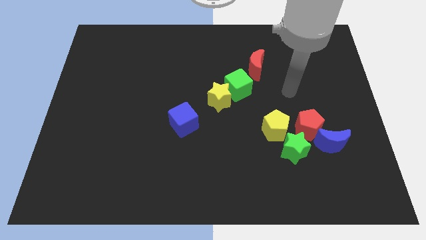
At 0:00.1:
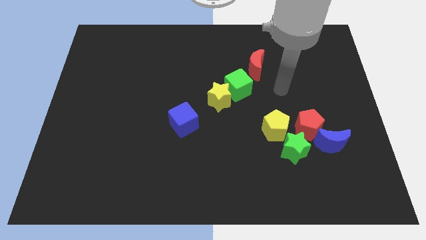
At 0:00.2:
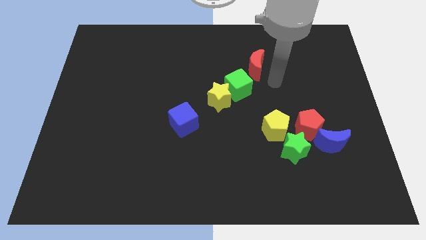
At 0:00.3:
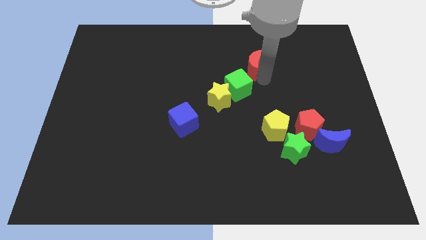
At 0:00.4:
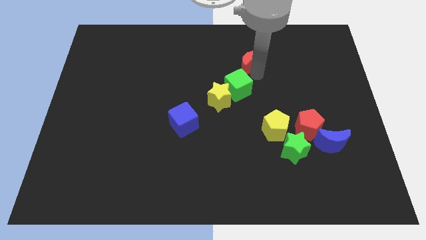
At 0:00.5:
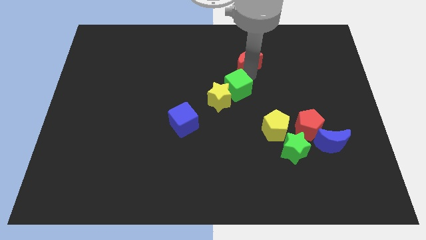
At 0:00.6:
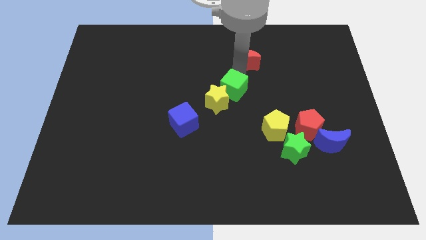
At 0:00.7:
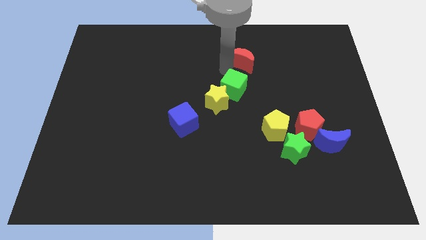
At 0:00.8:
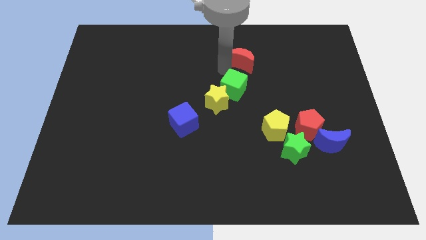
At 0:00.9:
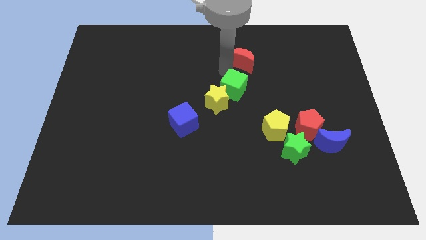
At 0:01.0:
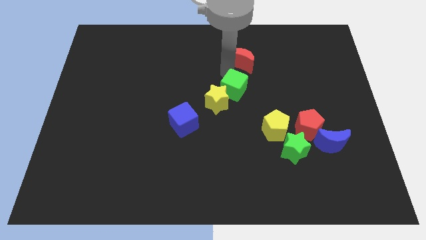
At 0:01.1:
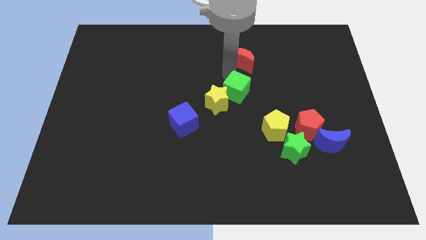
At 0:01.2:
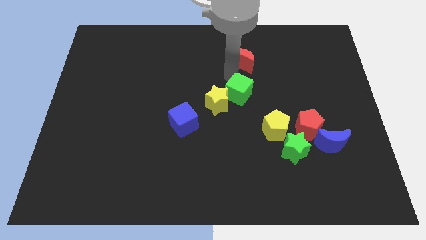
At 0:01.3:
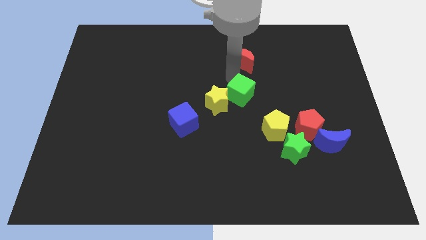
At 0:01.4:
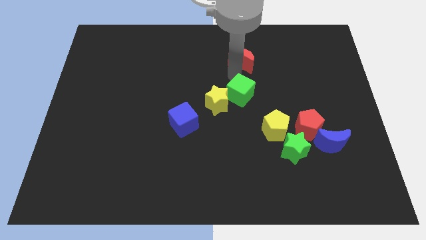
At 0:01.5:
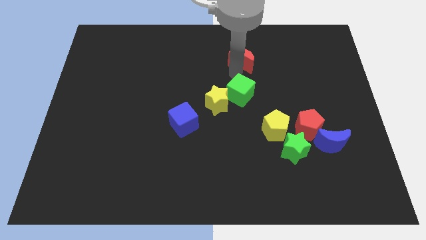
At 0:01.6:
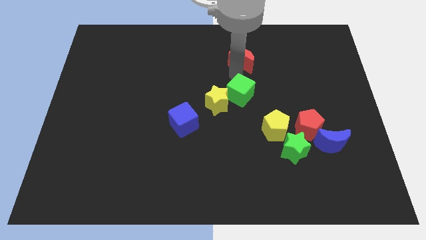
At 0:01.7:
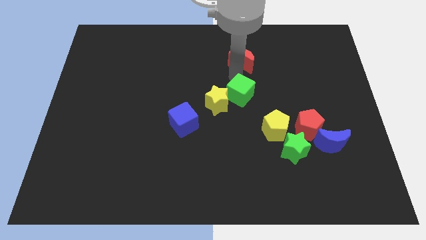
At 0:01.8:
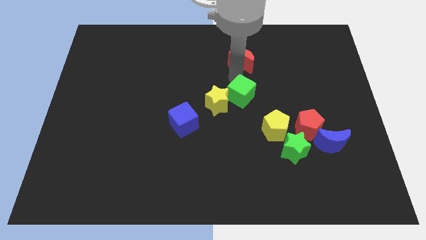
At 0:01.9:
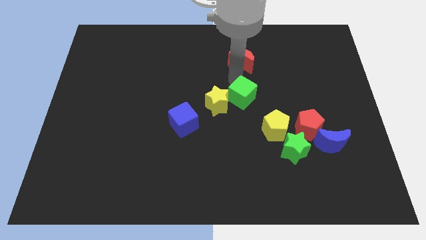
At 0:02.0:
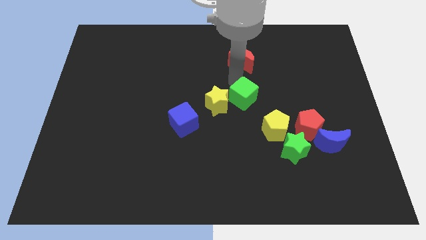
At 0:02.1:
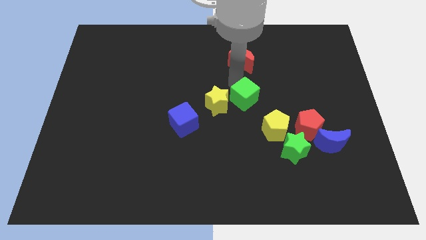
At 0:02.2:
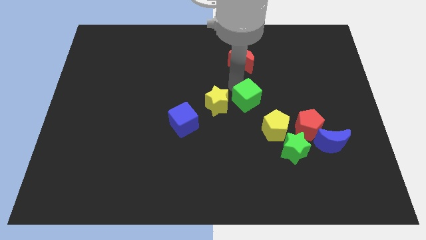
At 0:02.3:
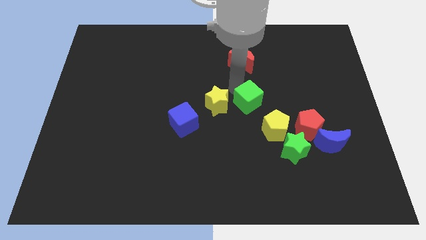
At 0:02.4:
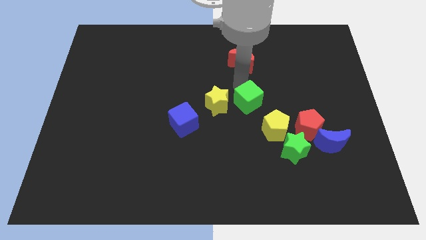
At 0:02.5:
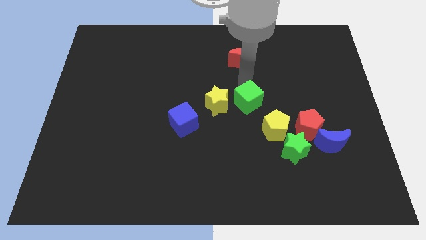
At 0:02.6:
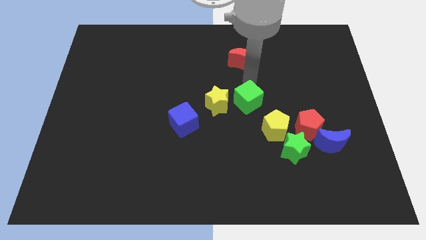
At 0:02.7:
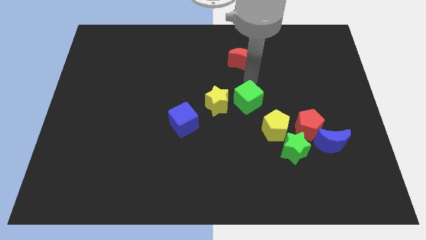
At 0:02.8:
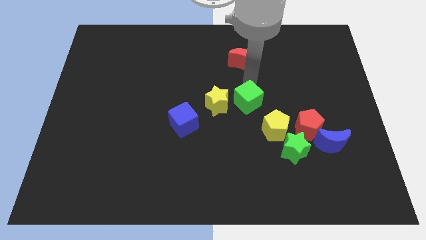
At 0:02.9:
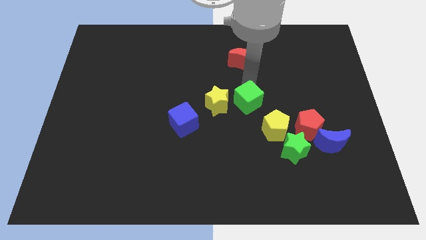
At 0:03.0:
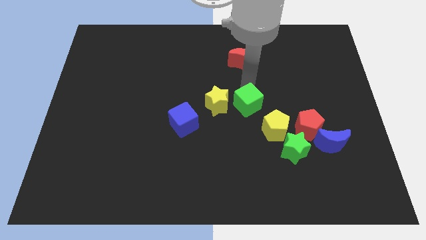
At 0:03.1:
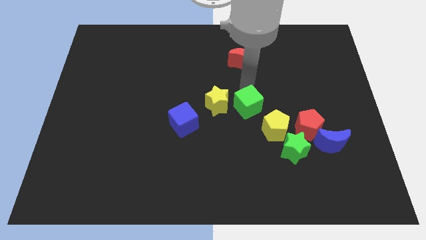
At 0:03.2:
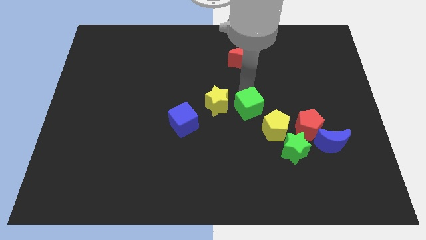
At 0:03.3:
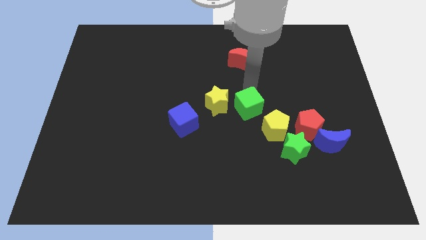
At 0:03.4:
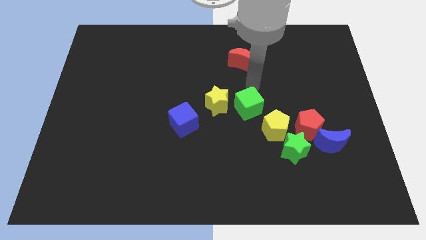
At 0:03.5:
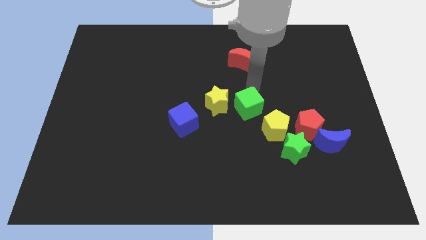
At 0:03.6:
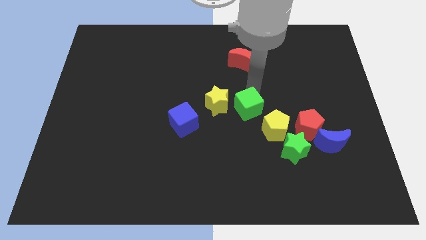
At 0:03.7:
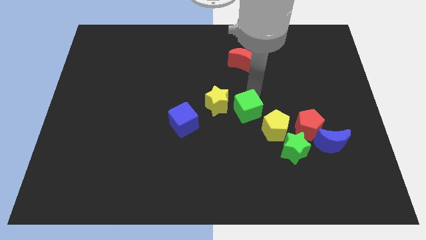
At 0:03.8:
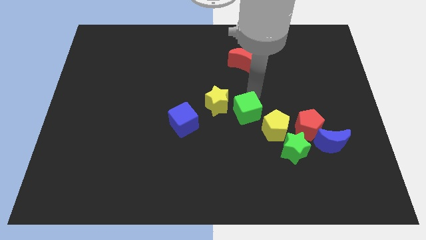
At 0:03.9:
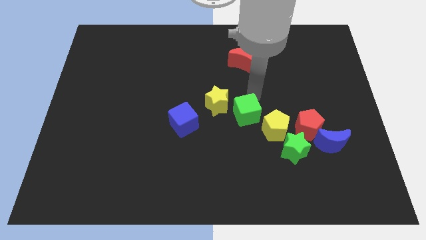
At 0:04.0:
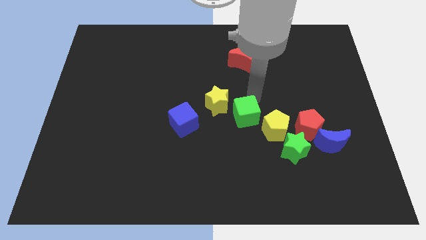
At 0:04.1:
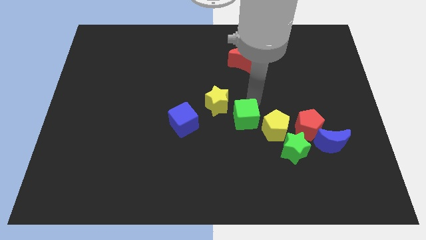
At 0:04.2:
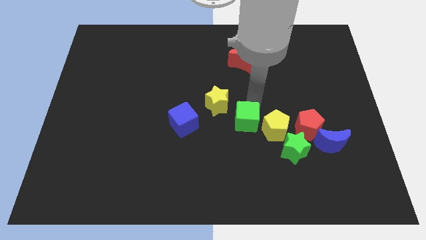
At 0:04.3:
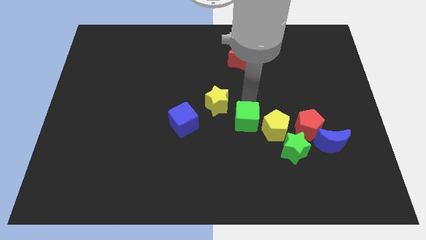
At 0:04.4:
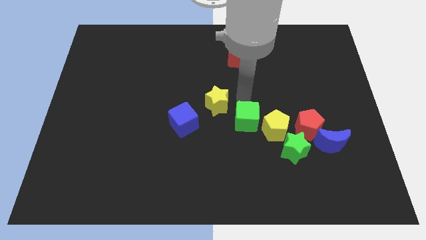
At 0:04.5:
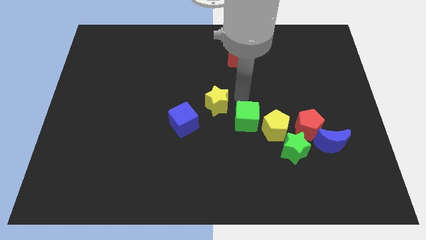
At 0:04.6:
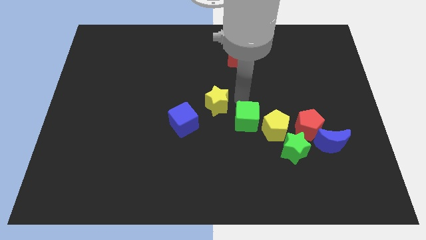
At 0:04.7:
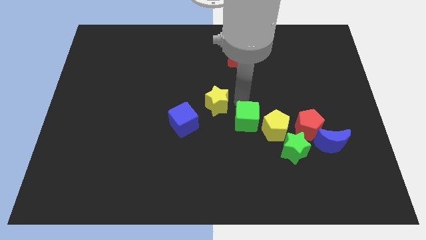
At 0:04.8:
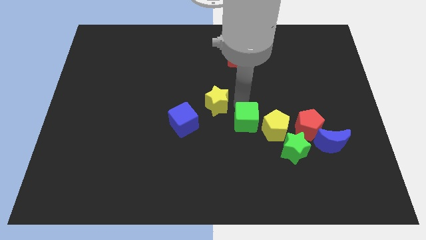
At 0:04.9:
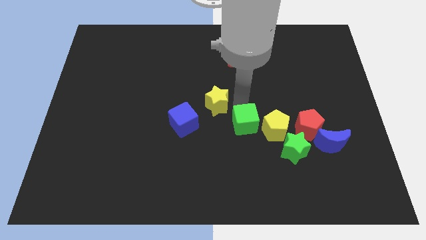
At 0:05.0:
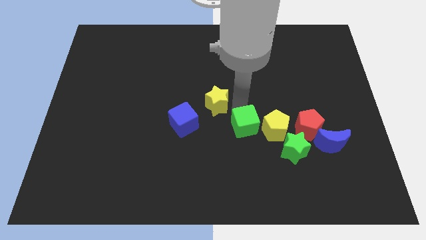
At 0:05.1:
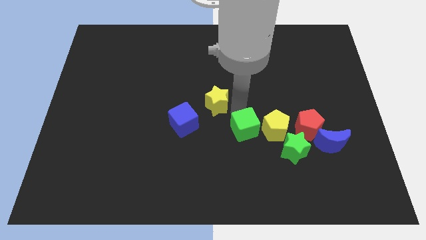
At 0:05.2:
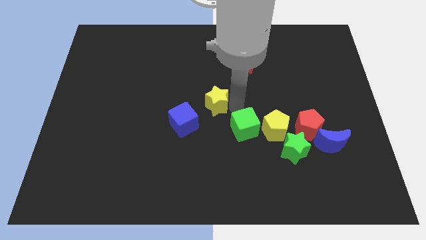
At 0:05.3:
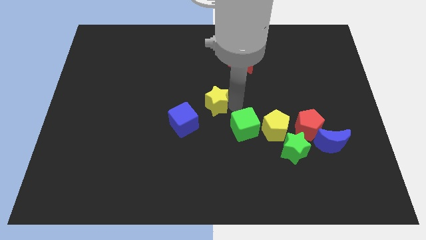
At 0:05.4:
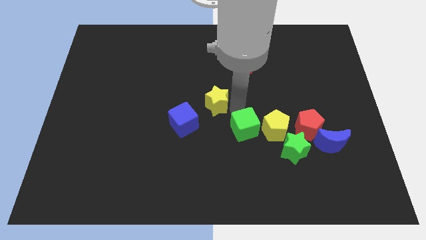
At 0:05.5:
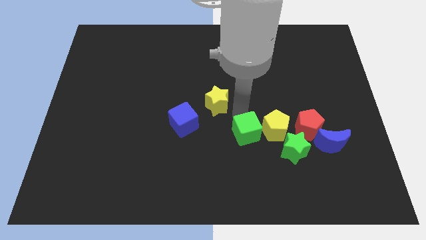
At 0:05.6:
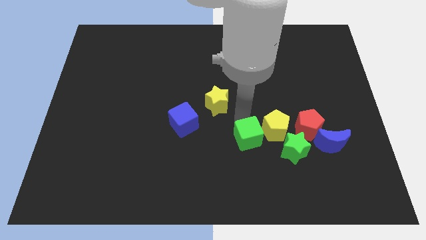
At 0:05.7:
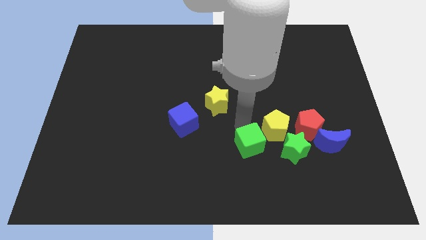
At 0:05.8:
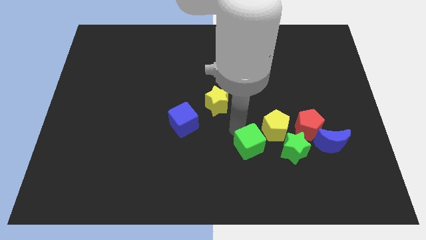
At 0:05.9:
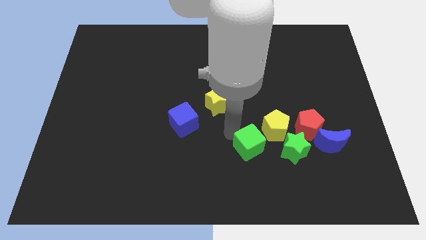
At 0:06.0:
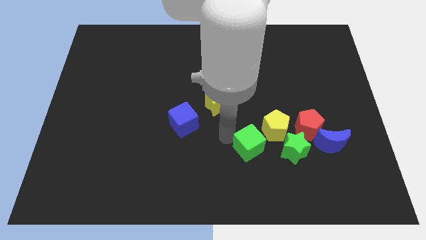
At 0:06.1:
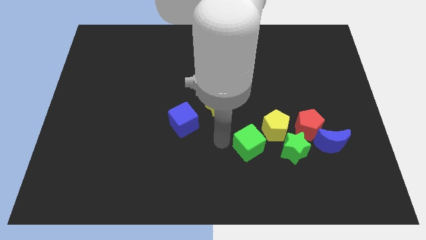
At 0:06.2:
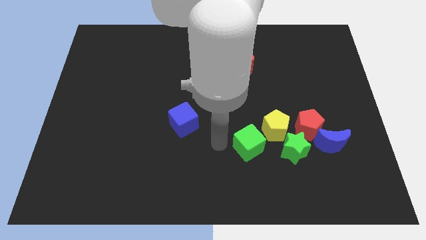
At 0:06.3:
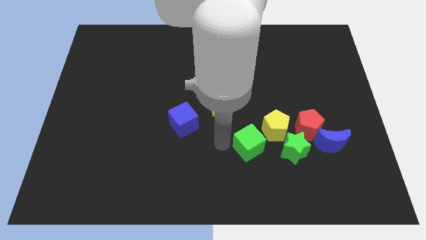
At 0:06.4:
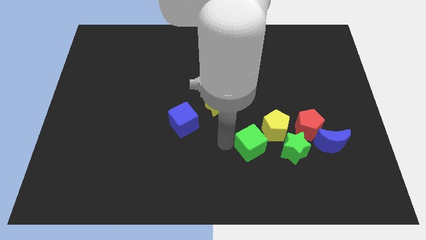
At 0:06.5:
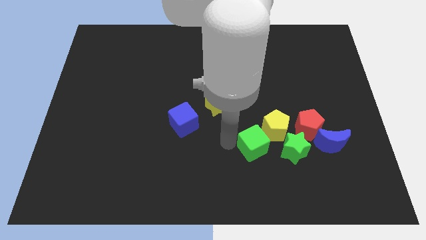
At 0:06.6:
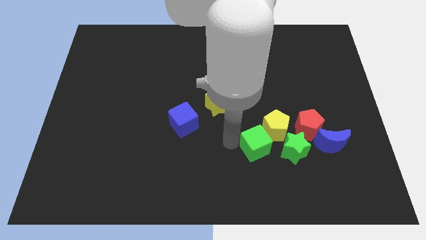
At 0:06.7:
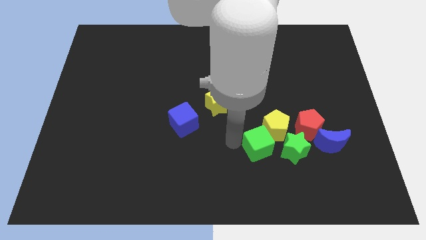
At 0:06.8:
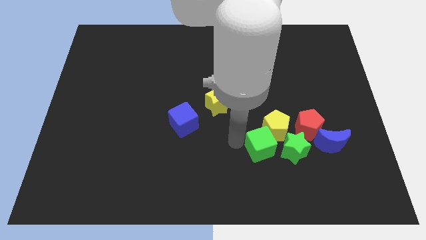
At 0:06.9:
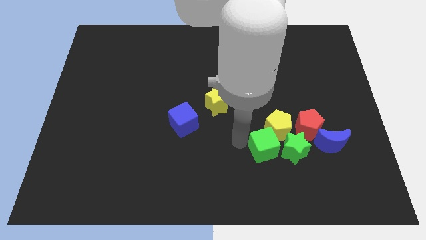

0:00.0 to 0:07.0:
push the green cube close to the green star
